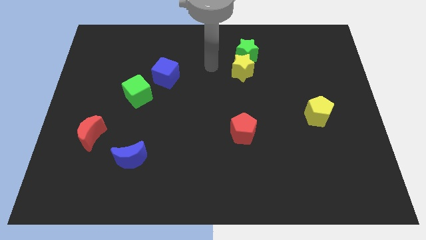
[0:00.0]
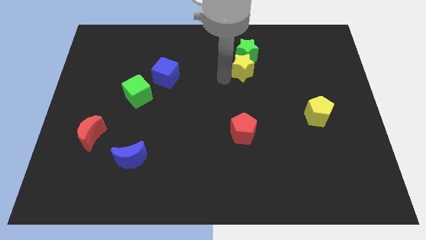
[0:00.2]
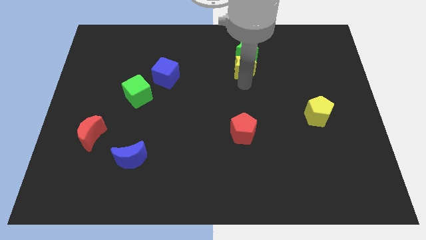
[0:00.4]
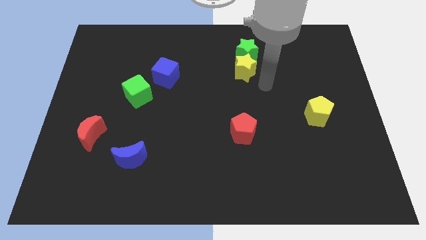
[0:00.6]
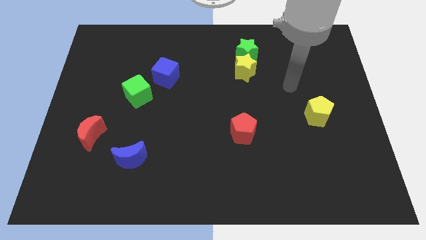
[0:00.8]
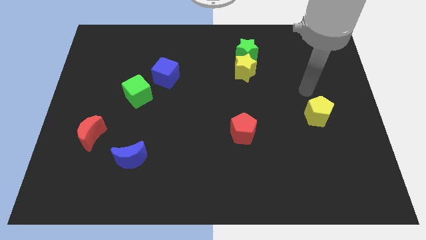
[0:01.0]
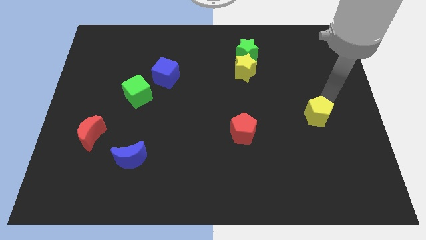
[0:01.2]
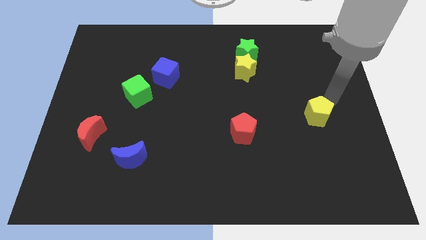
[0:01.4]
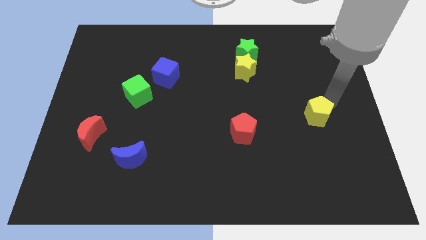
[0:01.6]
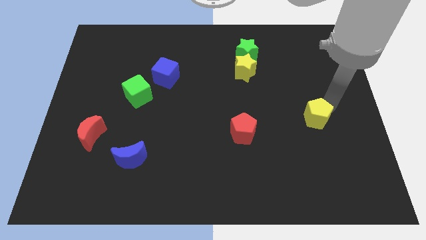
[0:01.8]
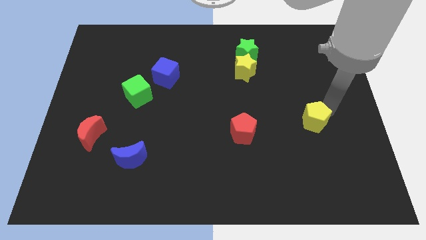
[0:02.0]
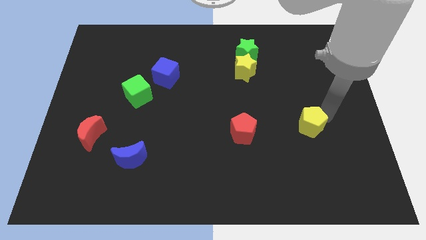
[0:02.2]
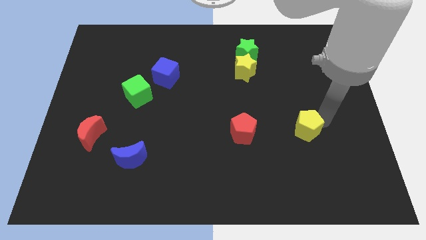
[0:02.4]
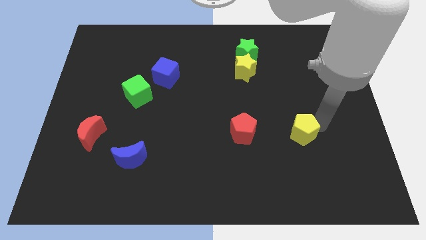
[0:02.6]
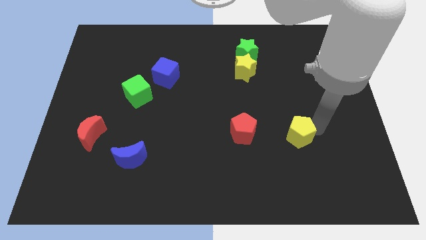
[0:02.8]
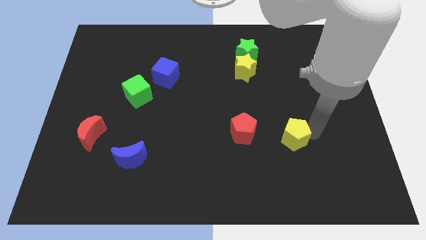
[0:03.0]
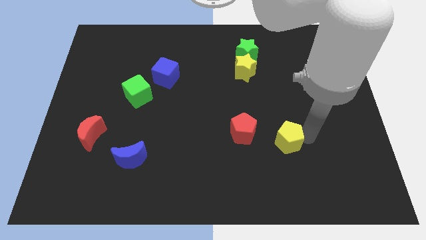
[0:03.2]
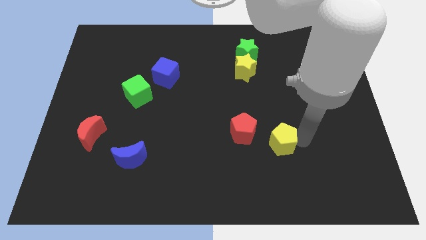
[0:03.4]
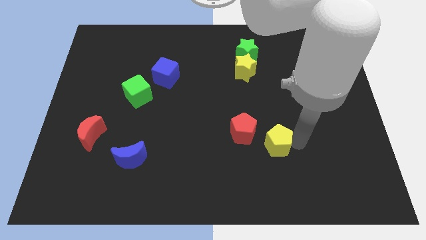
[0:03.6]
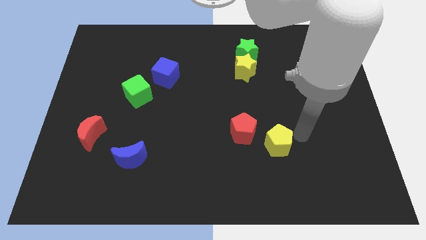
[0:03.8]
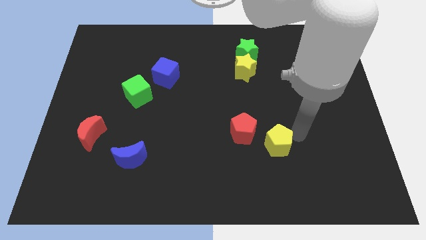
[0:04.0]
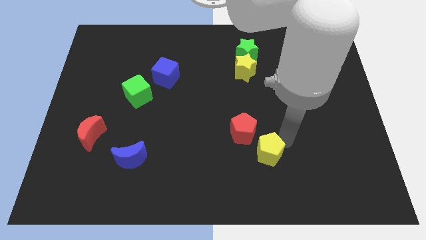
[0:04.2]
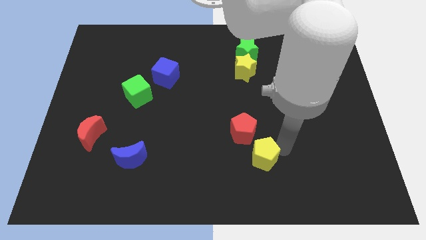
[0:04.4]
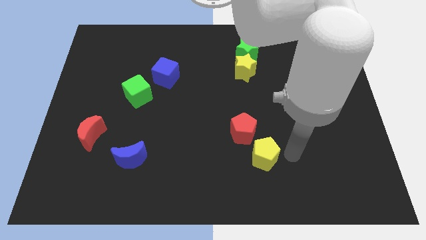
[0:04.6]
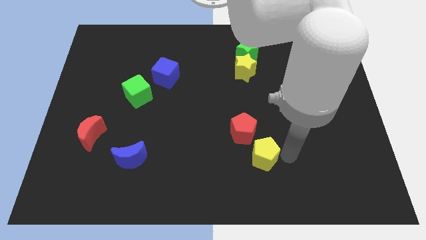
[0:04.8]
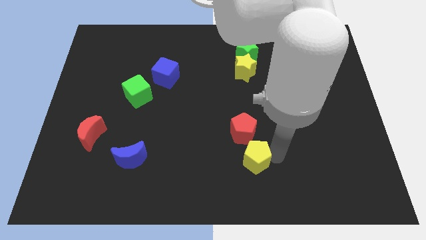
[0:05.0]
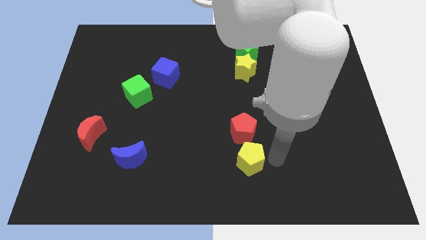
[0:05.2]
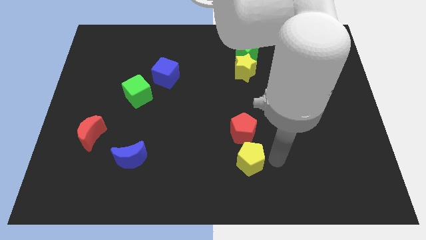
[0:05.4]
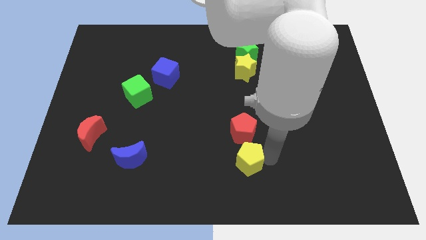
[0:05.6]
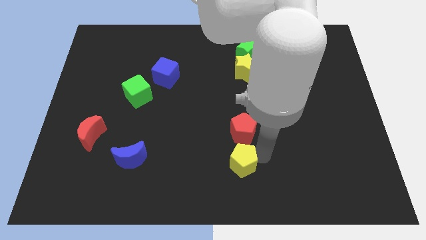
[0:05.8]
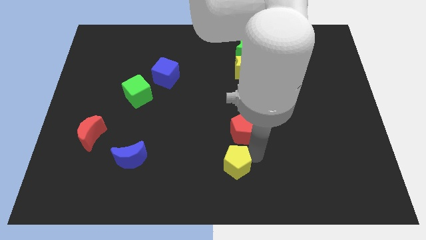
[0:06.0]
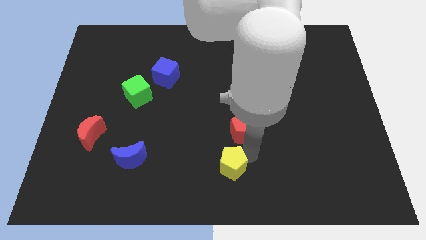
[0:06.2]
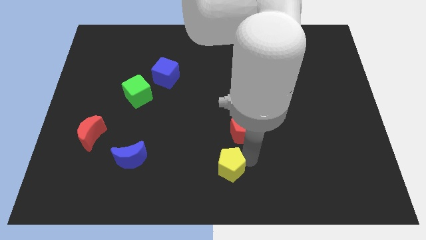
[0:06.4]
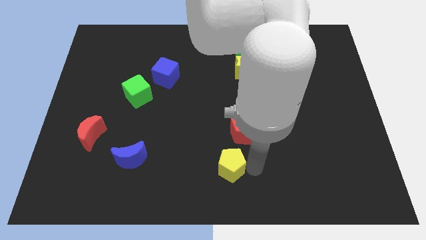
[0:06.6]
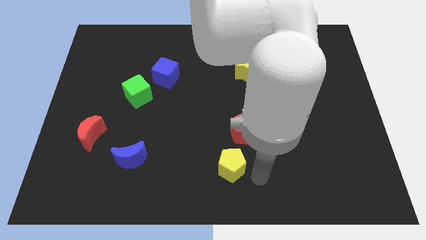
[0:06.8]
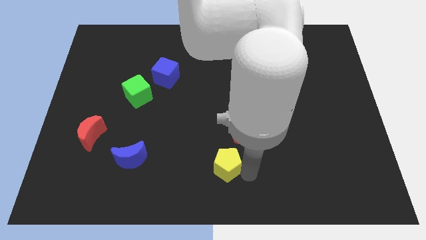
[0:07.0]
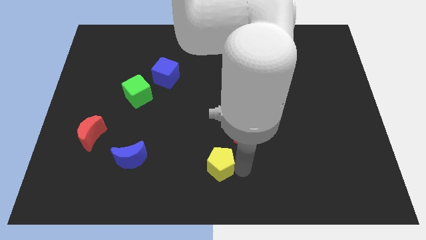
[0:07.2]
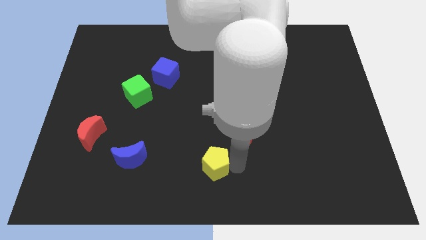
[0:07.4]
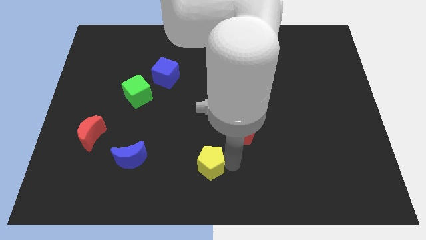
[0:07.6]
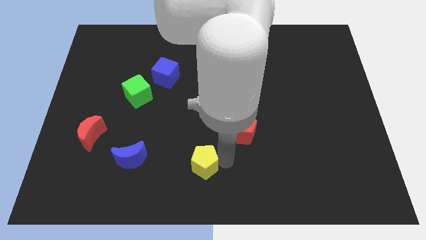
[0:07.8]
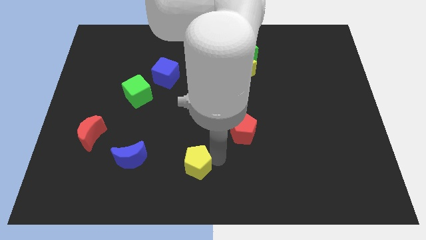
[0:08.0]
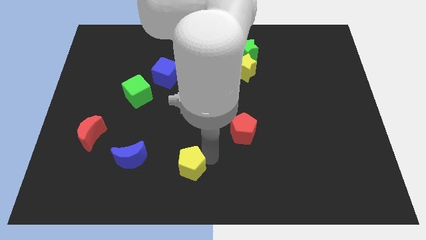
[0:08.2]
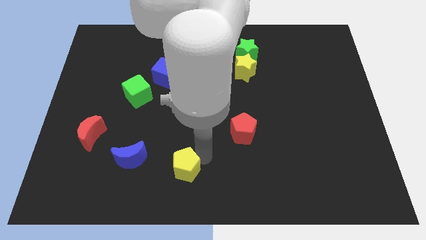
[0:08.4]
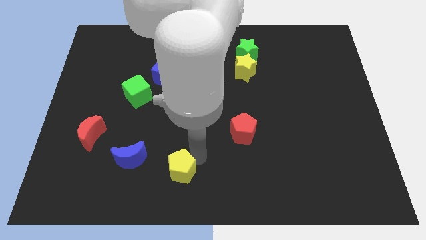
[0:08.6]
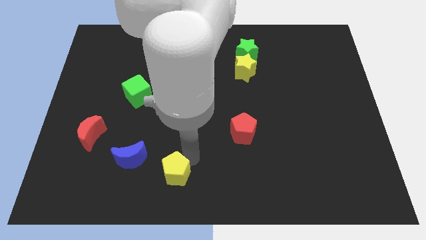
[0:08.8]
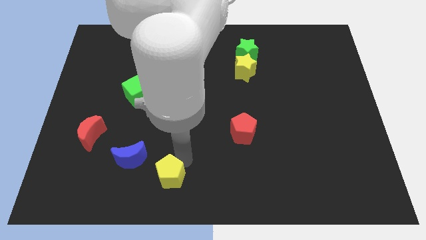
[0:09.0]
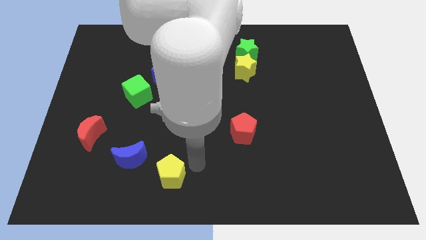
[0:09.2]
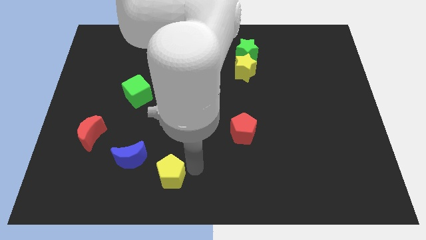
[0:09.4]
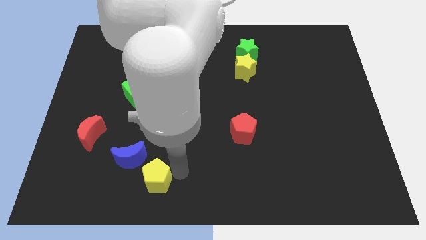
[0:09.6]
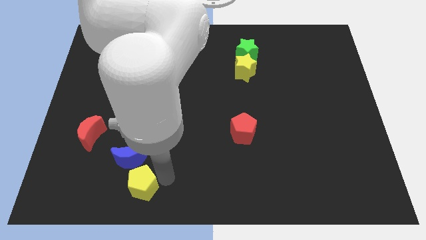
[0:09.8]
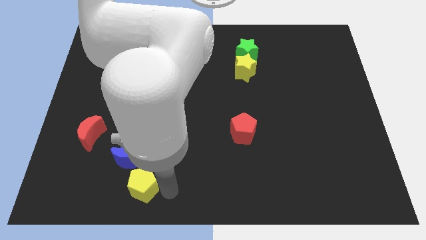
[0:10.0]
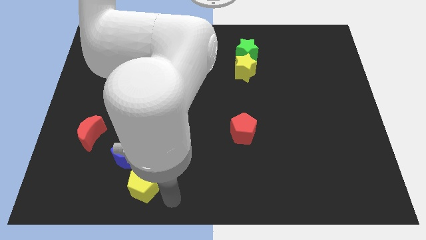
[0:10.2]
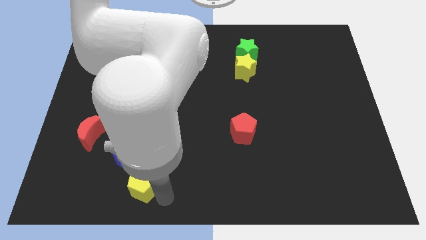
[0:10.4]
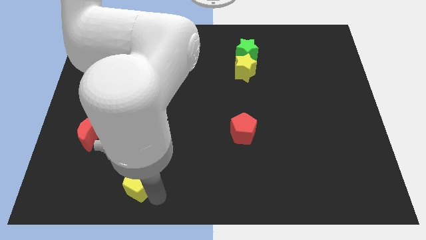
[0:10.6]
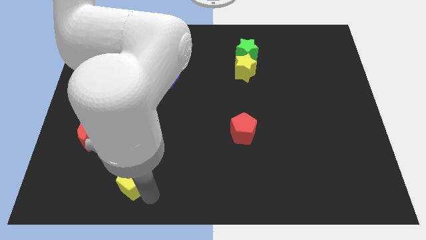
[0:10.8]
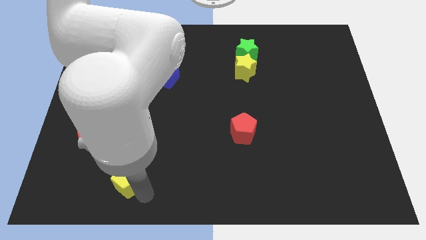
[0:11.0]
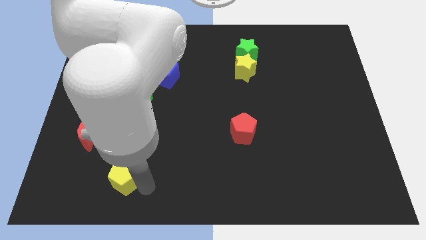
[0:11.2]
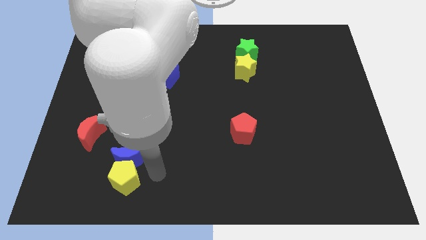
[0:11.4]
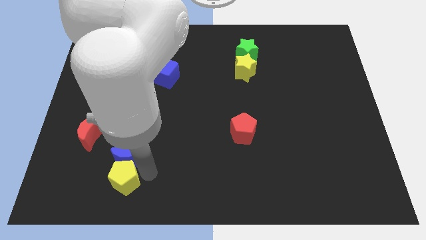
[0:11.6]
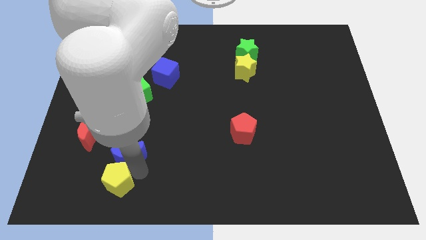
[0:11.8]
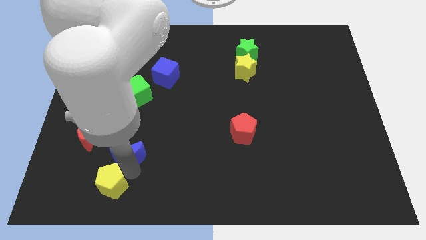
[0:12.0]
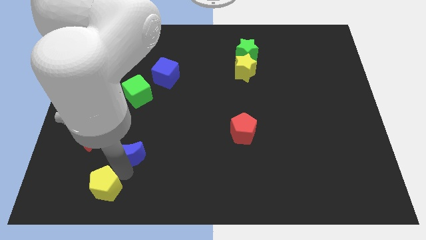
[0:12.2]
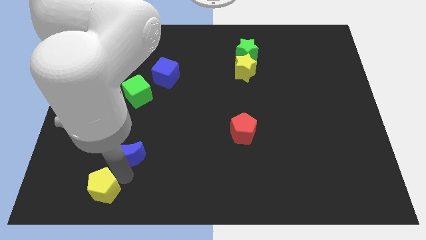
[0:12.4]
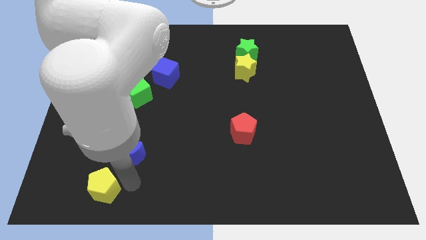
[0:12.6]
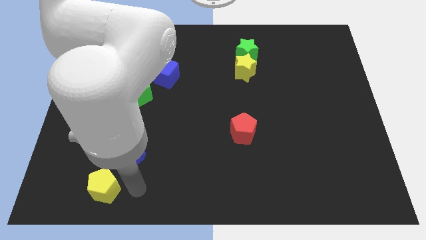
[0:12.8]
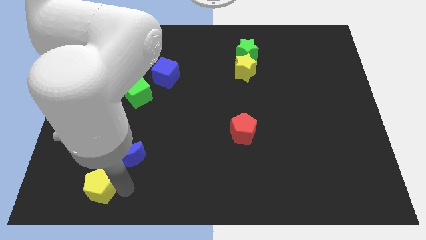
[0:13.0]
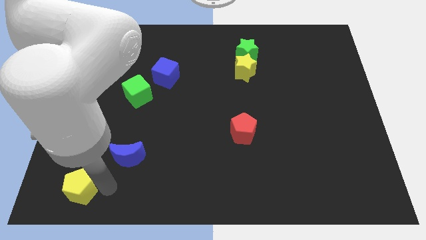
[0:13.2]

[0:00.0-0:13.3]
slide the yellow pentagon to the bottom left of the board
